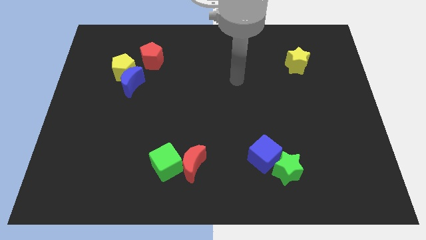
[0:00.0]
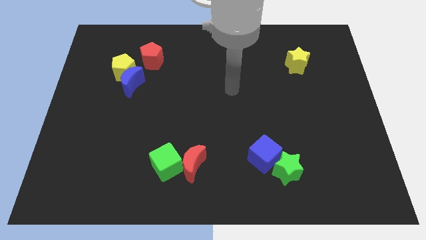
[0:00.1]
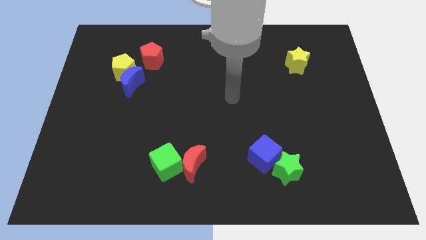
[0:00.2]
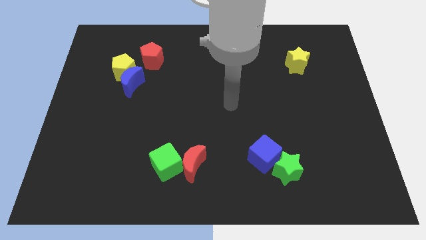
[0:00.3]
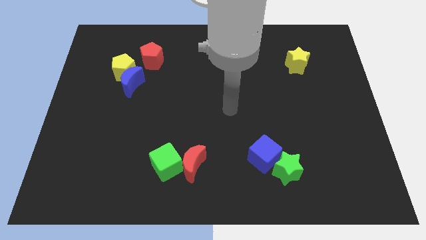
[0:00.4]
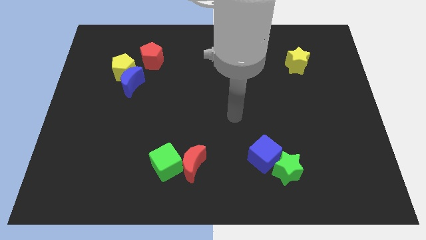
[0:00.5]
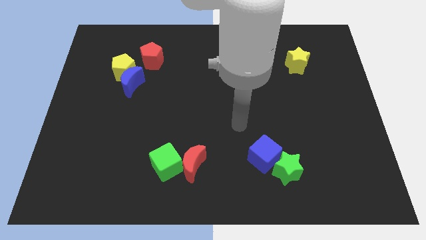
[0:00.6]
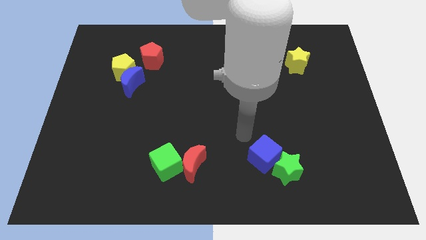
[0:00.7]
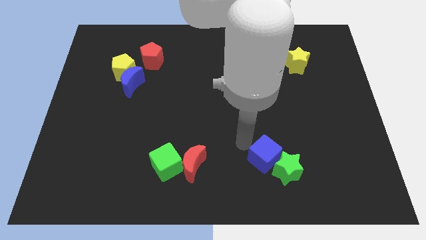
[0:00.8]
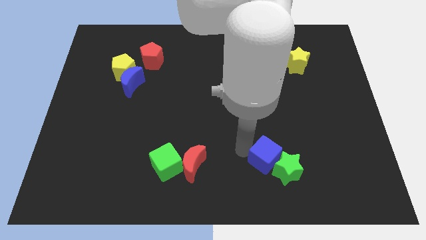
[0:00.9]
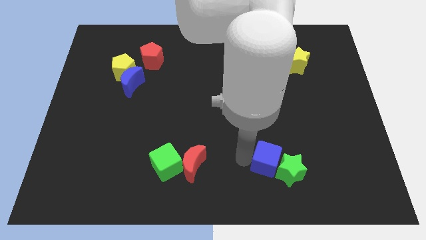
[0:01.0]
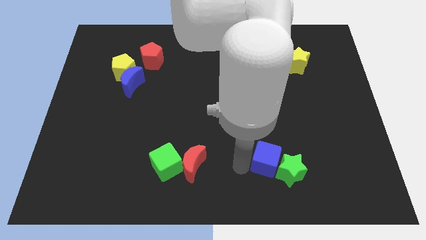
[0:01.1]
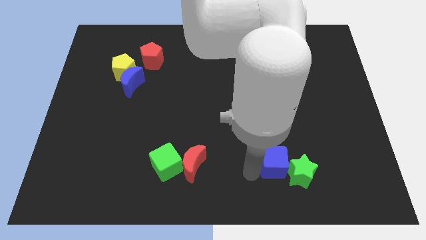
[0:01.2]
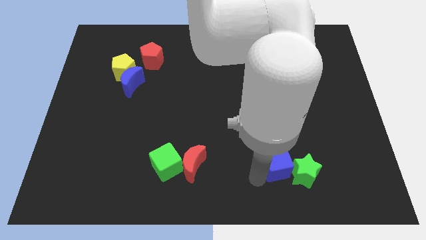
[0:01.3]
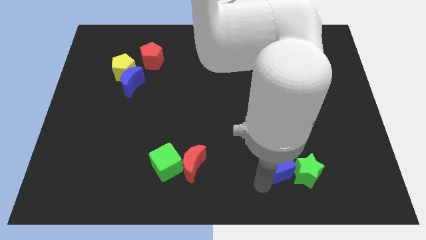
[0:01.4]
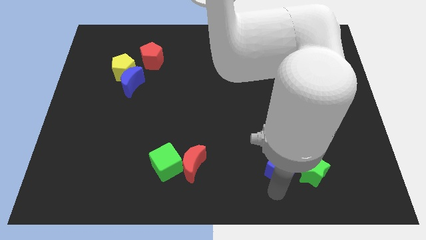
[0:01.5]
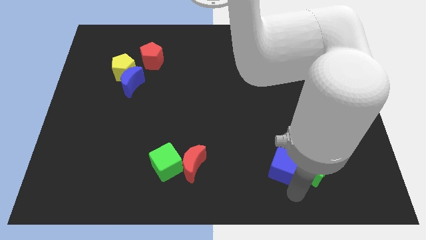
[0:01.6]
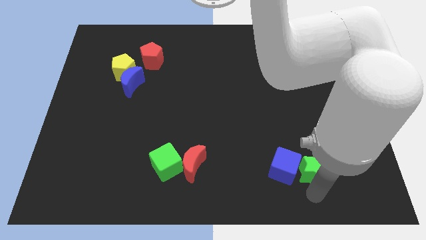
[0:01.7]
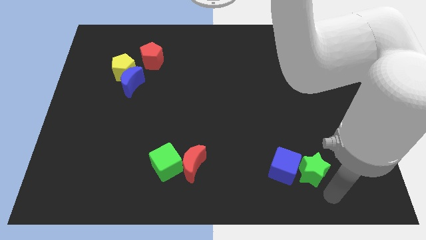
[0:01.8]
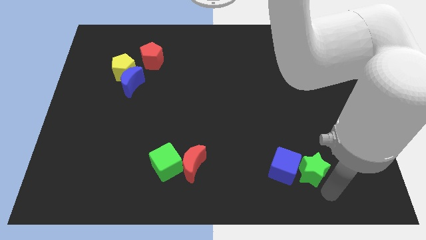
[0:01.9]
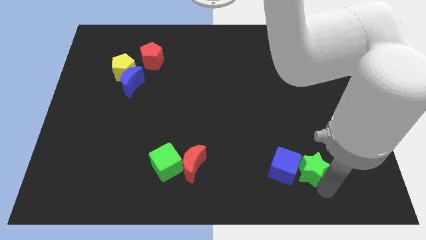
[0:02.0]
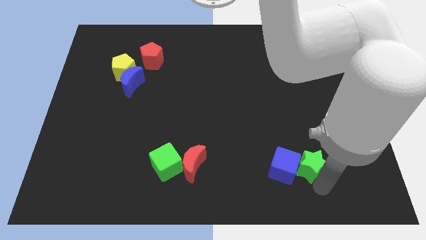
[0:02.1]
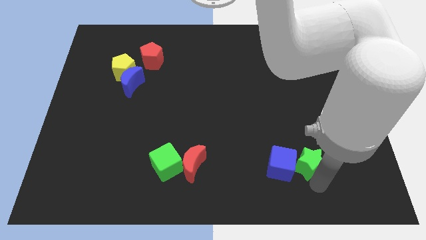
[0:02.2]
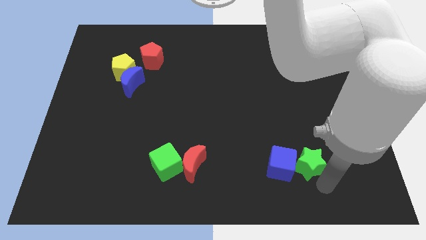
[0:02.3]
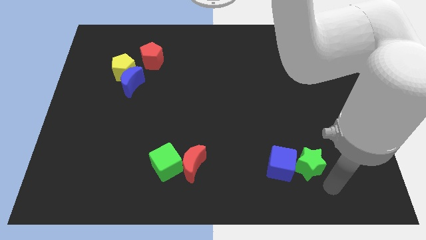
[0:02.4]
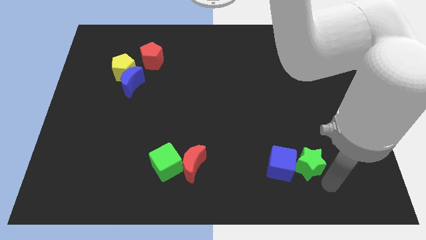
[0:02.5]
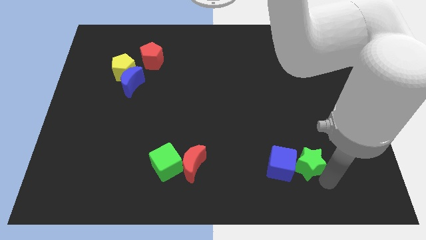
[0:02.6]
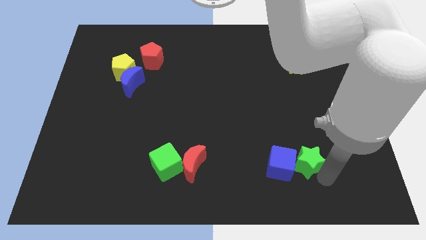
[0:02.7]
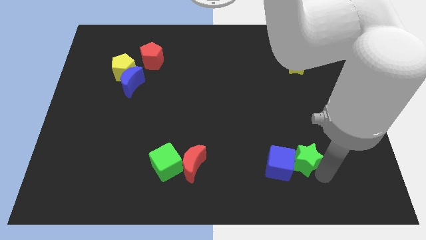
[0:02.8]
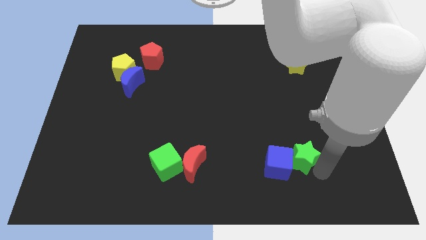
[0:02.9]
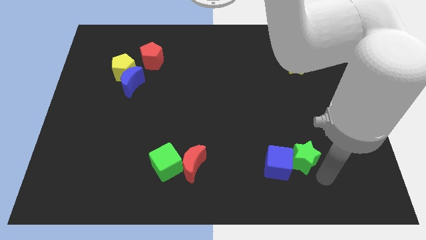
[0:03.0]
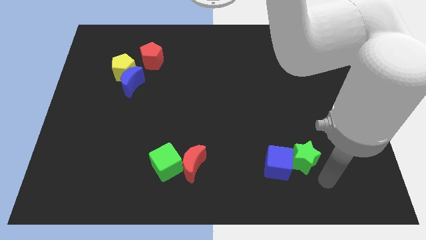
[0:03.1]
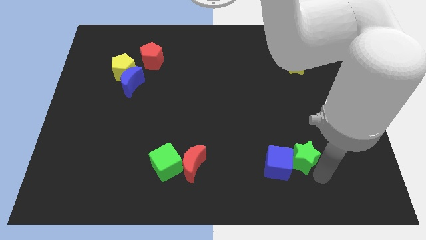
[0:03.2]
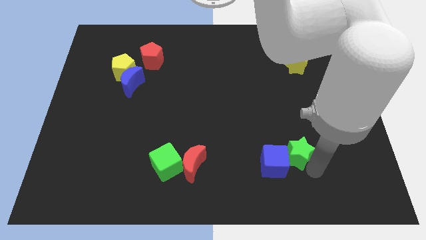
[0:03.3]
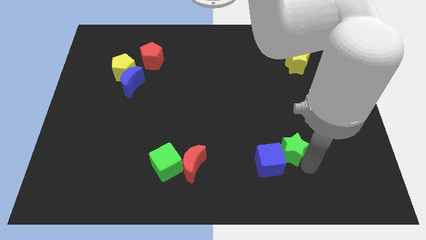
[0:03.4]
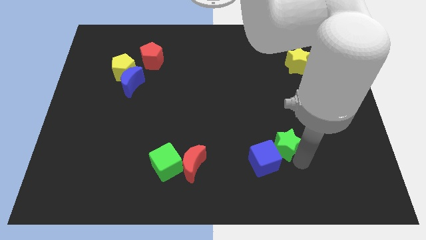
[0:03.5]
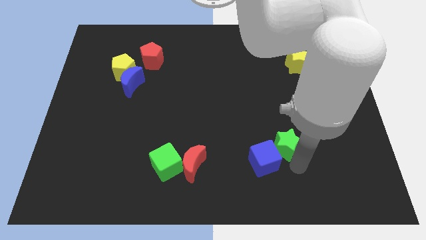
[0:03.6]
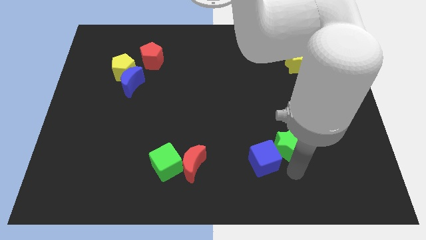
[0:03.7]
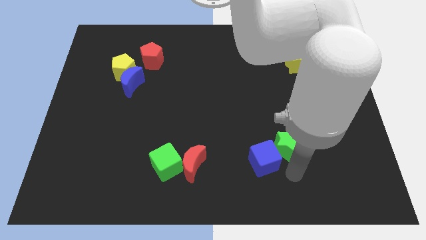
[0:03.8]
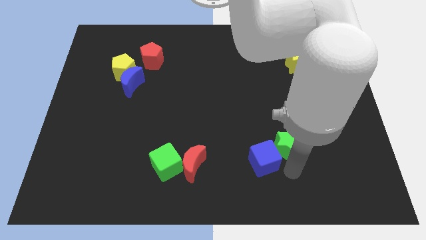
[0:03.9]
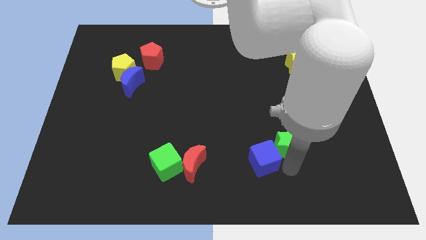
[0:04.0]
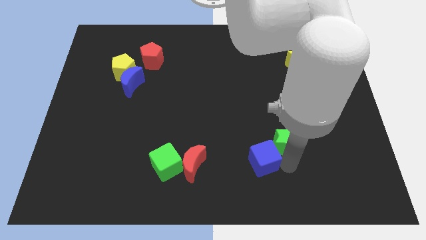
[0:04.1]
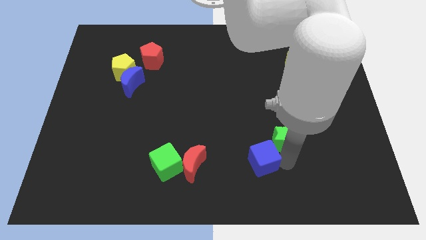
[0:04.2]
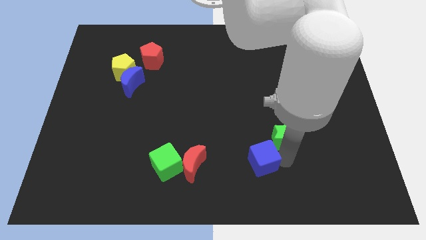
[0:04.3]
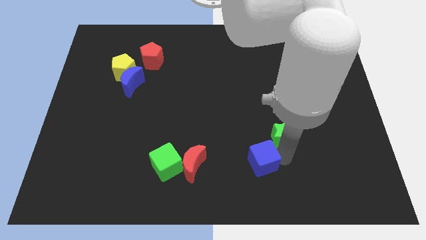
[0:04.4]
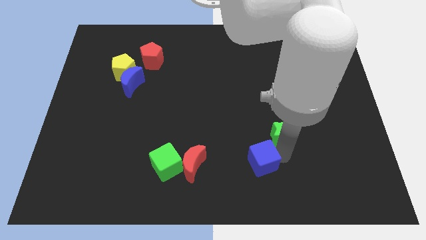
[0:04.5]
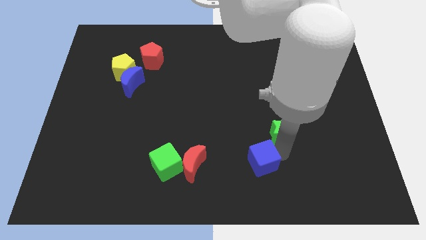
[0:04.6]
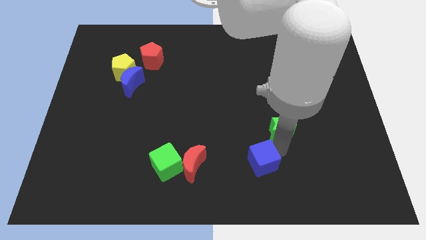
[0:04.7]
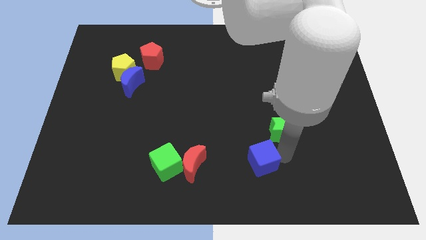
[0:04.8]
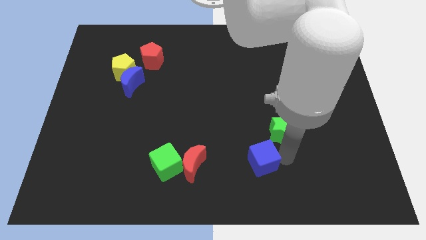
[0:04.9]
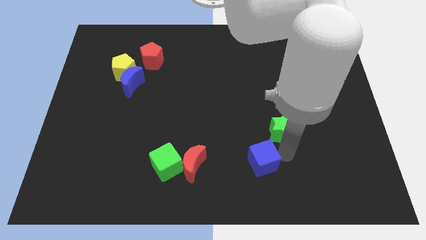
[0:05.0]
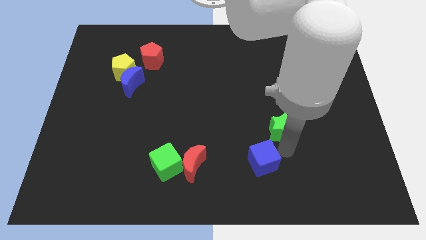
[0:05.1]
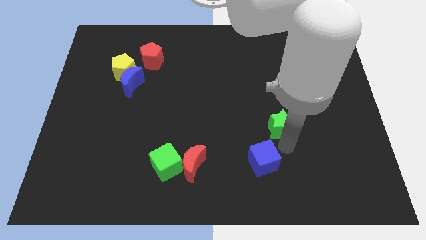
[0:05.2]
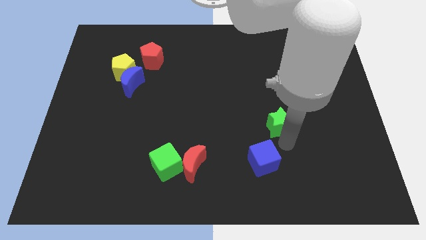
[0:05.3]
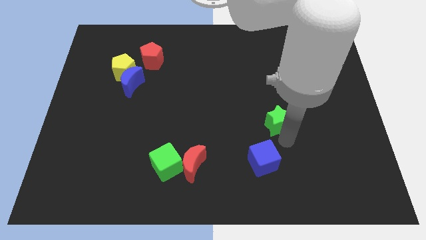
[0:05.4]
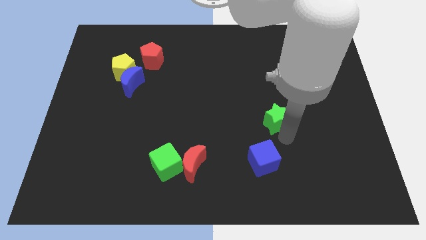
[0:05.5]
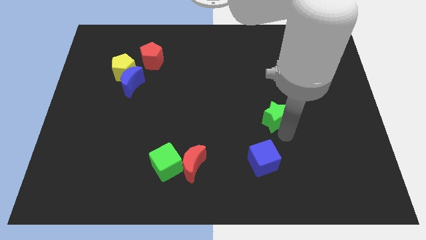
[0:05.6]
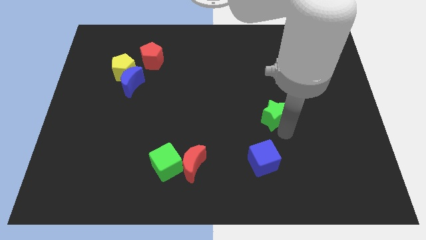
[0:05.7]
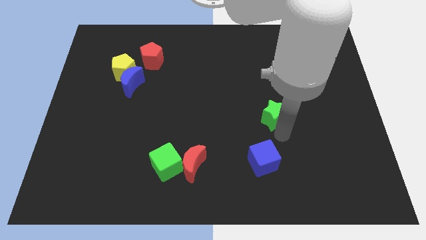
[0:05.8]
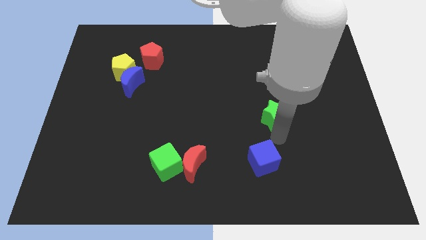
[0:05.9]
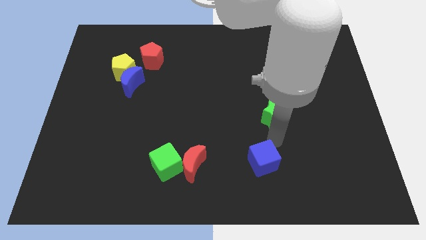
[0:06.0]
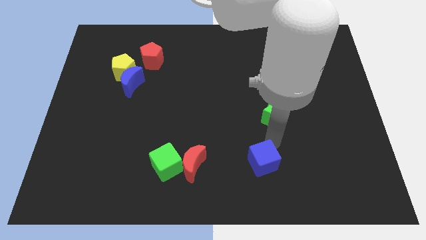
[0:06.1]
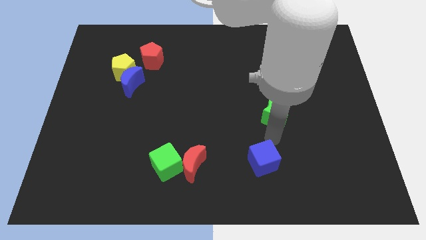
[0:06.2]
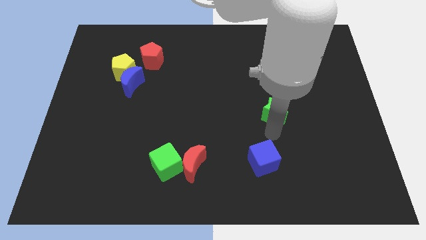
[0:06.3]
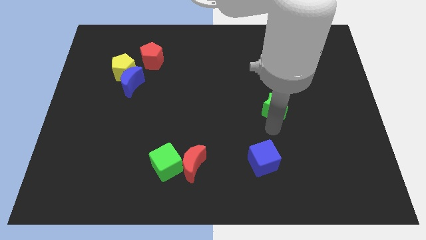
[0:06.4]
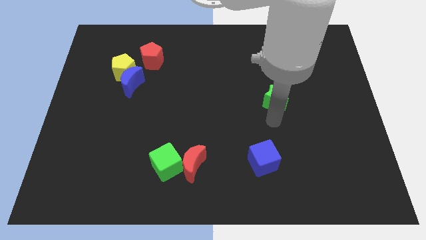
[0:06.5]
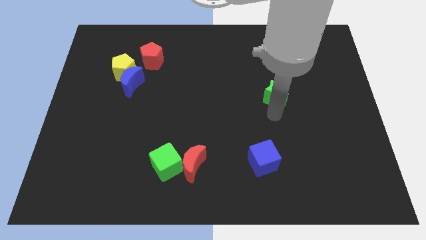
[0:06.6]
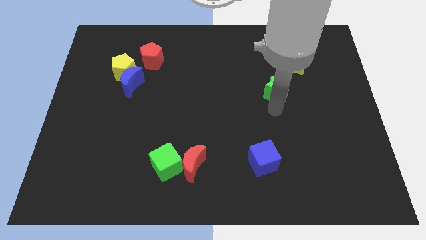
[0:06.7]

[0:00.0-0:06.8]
slide the green star up

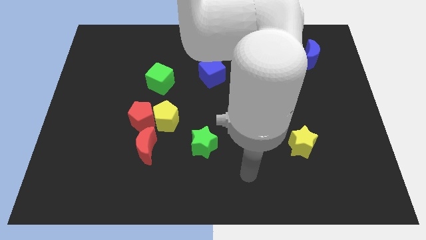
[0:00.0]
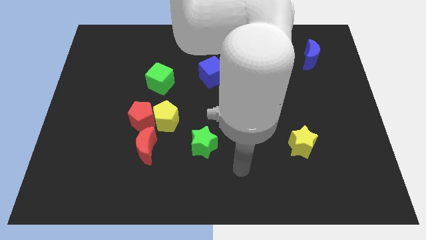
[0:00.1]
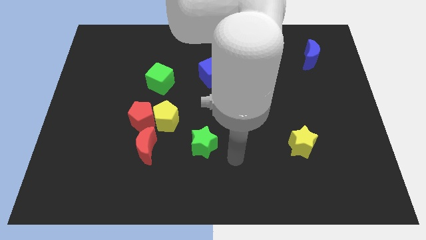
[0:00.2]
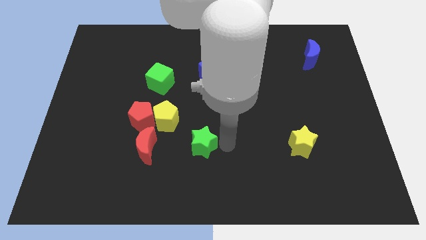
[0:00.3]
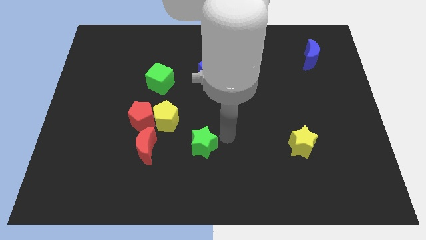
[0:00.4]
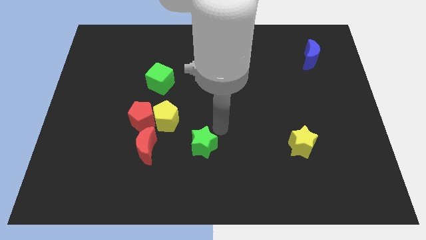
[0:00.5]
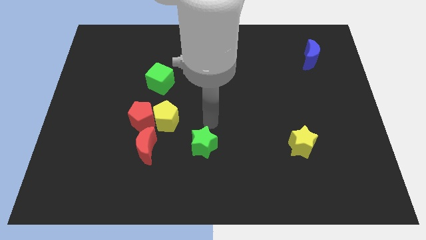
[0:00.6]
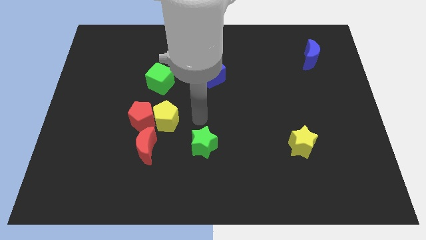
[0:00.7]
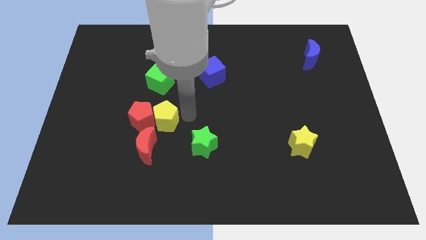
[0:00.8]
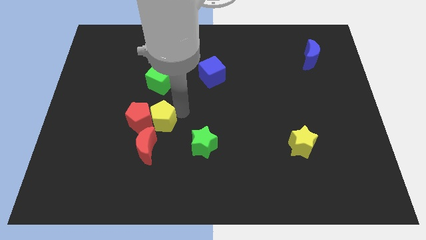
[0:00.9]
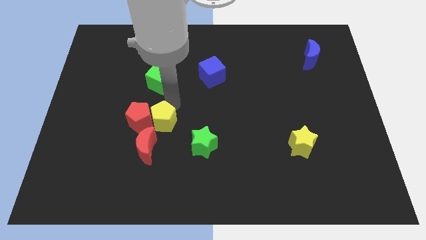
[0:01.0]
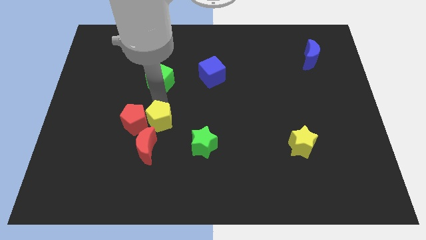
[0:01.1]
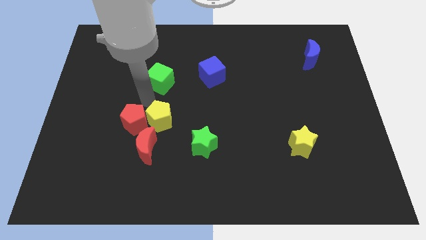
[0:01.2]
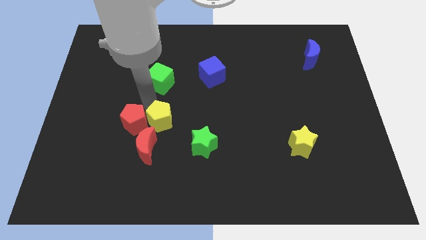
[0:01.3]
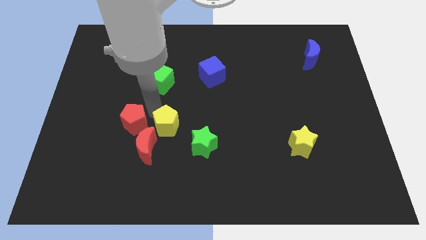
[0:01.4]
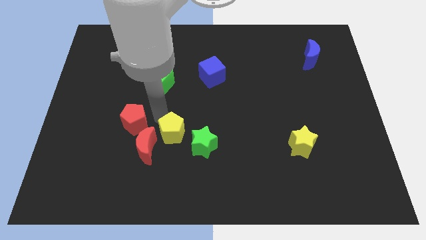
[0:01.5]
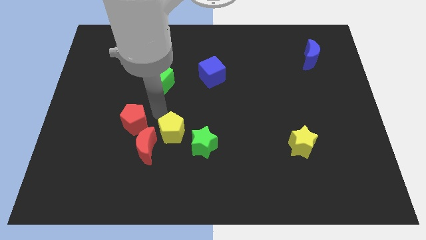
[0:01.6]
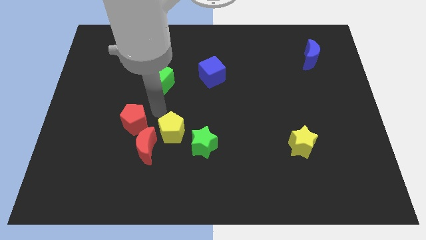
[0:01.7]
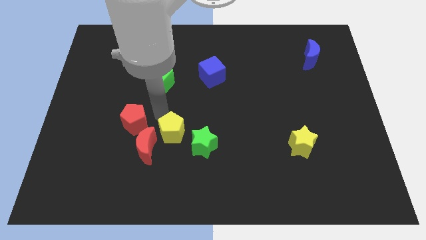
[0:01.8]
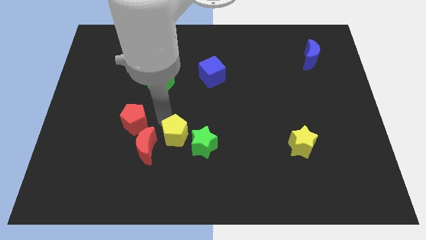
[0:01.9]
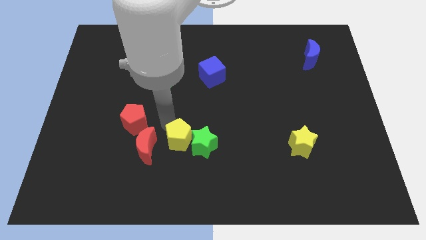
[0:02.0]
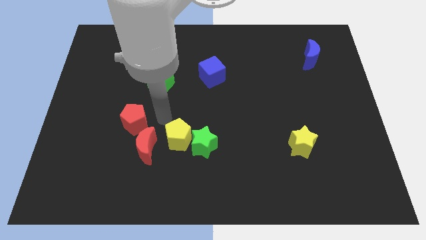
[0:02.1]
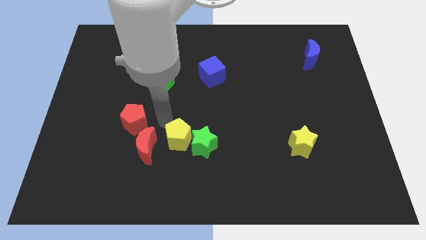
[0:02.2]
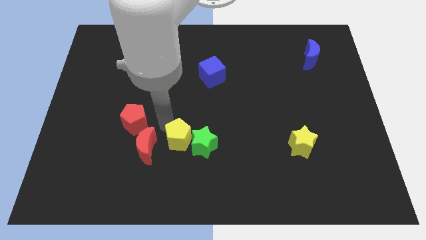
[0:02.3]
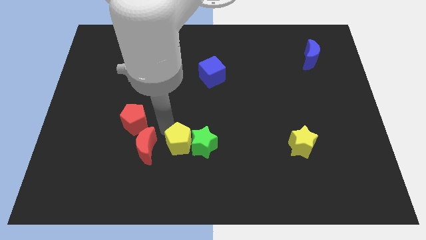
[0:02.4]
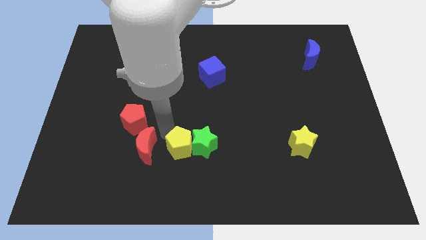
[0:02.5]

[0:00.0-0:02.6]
move the yellow pentagon a bit downwards and then to the right
